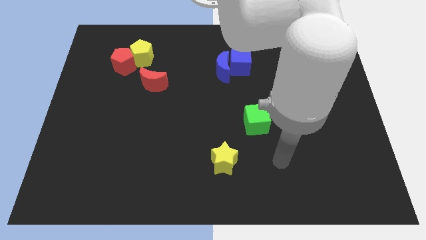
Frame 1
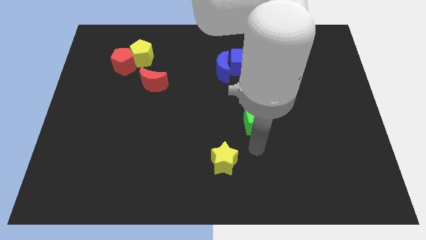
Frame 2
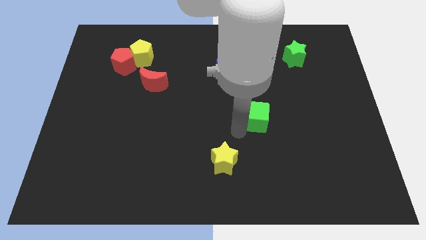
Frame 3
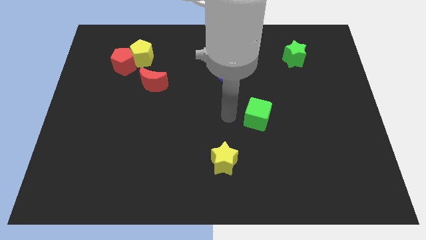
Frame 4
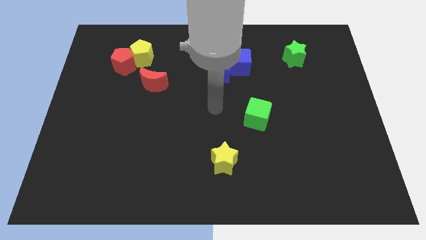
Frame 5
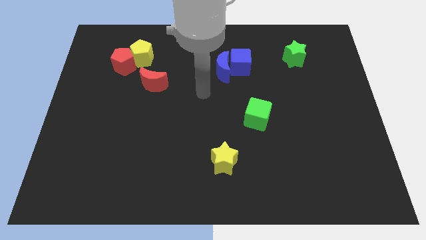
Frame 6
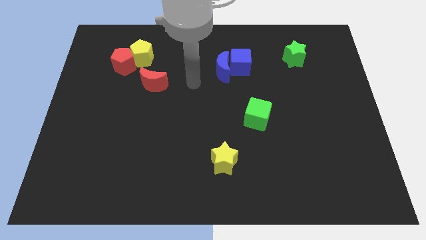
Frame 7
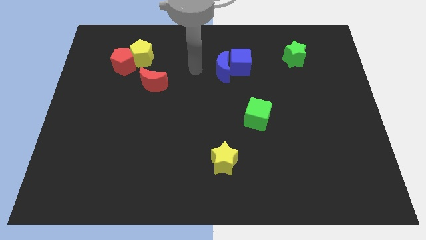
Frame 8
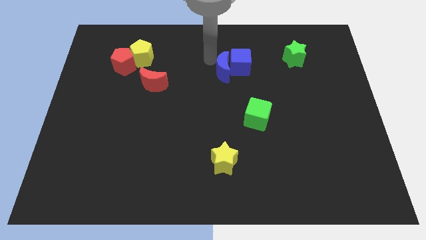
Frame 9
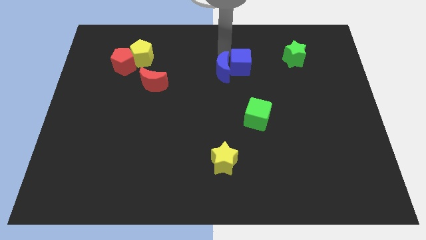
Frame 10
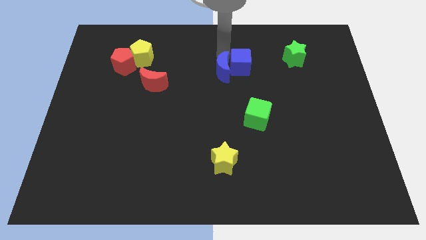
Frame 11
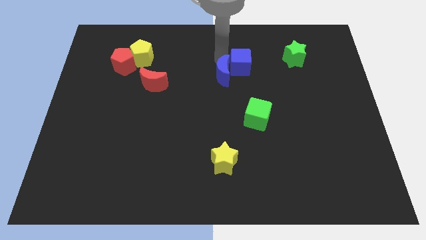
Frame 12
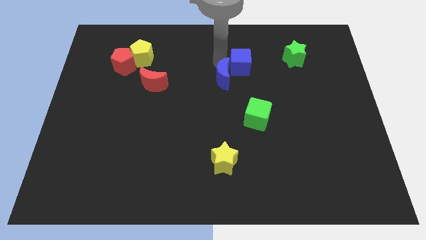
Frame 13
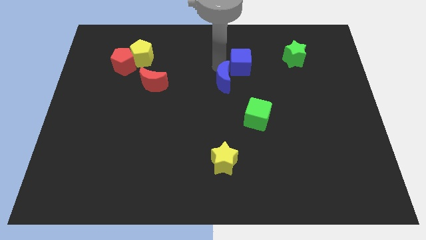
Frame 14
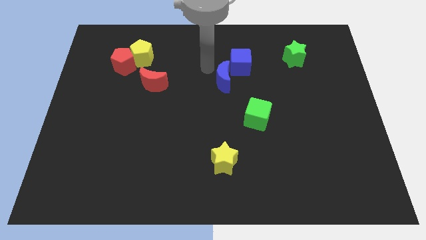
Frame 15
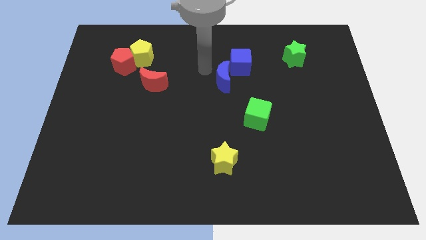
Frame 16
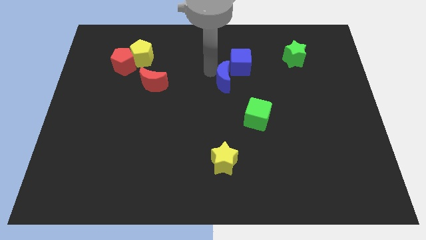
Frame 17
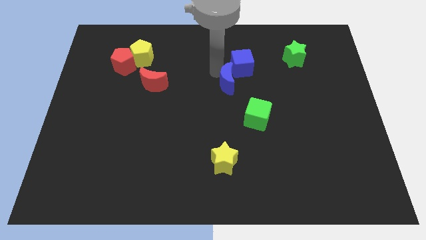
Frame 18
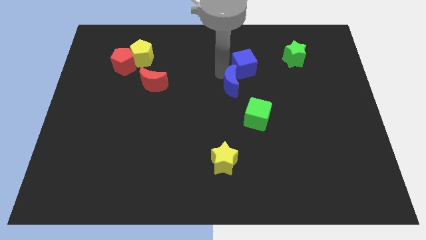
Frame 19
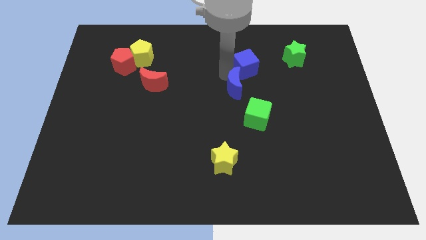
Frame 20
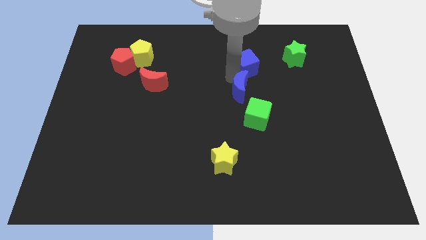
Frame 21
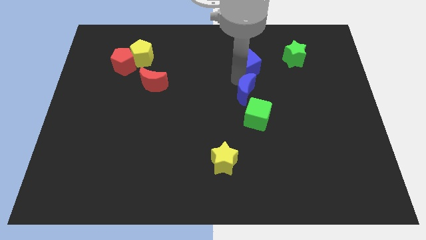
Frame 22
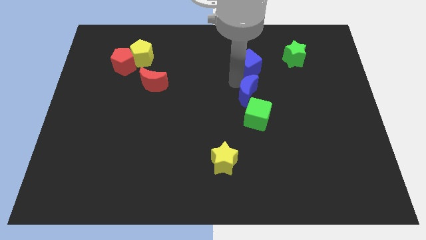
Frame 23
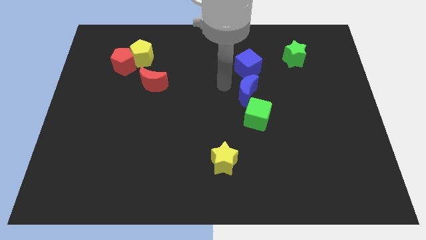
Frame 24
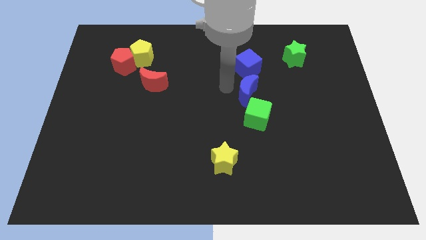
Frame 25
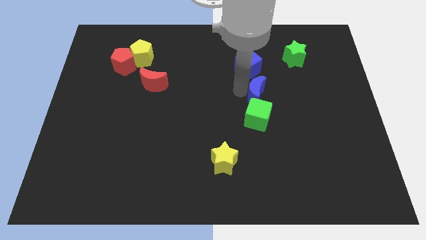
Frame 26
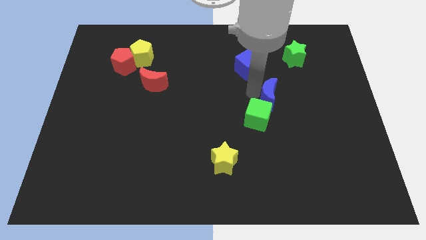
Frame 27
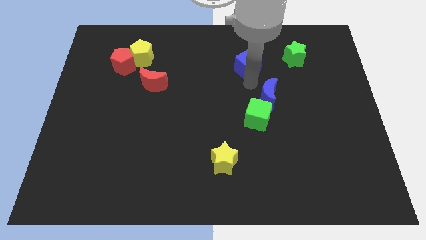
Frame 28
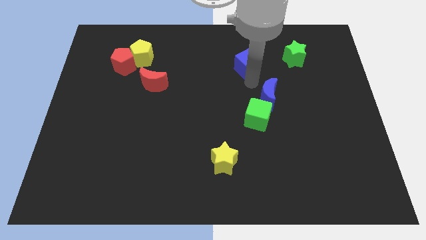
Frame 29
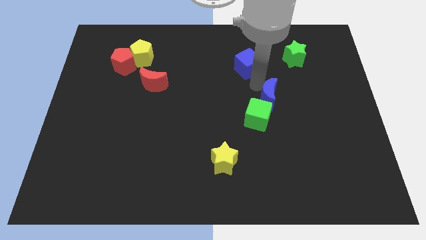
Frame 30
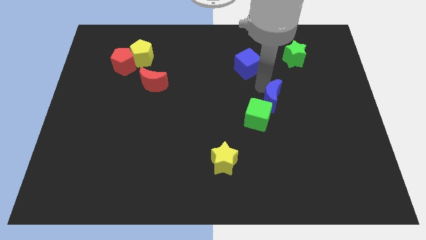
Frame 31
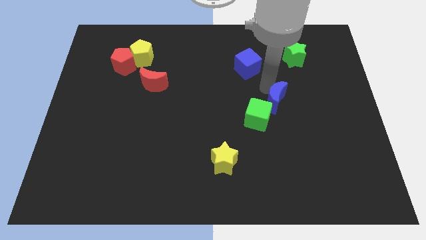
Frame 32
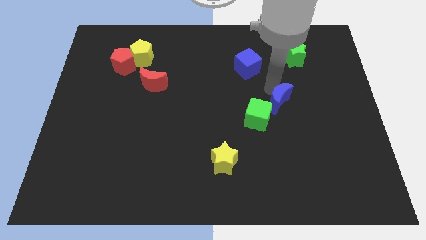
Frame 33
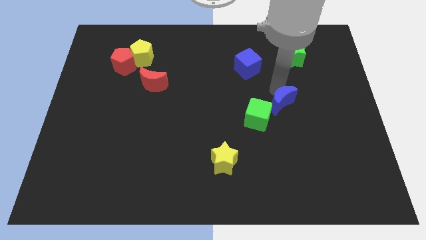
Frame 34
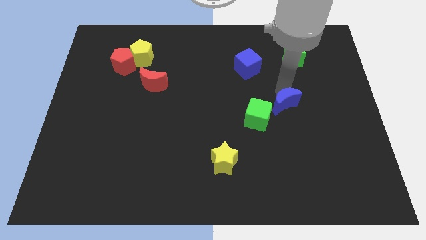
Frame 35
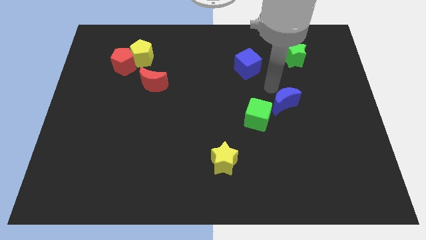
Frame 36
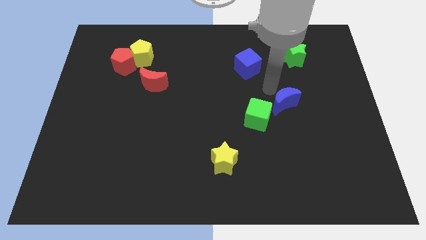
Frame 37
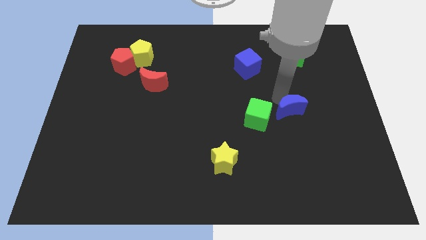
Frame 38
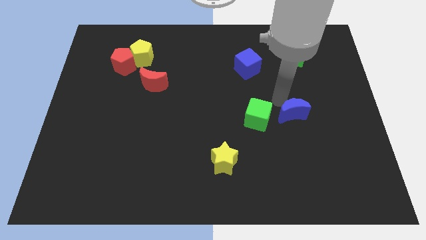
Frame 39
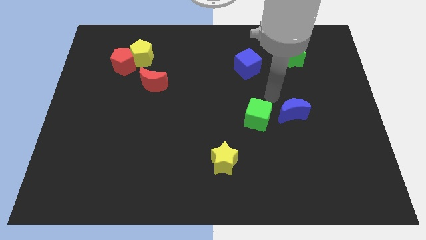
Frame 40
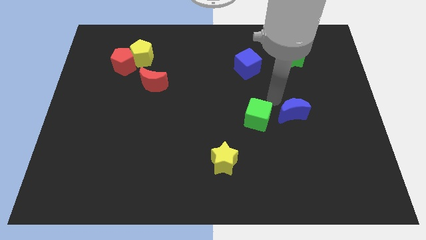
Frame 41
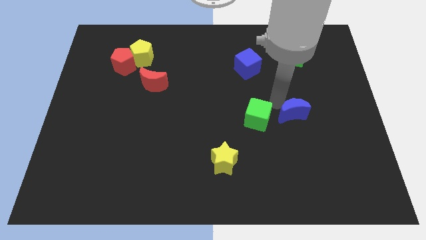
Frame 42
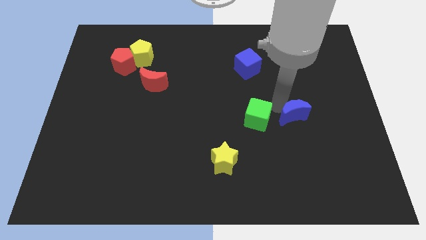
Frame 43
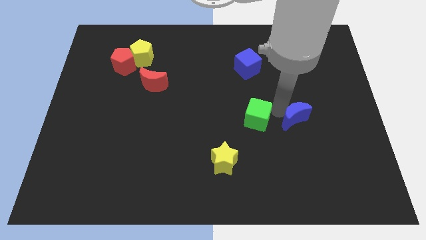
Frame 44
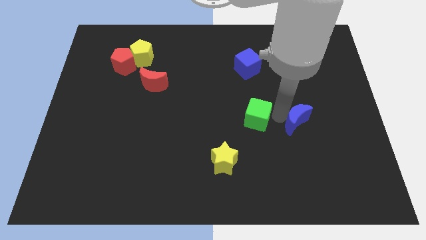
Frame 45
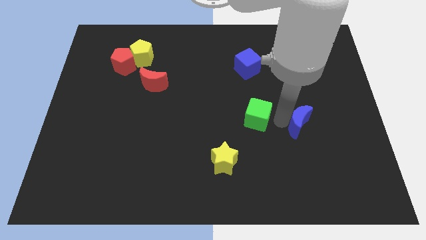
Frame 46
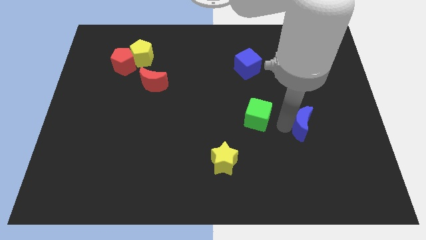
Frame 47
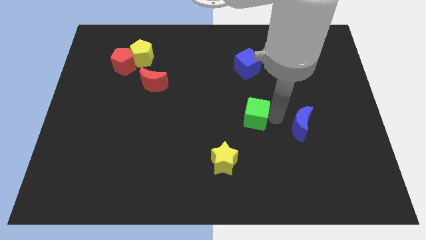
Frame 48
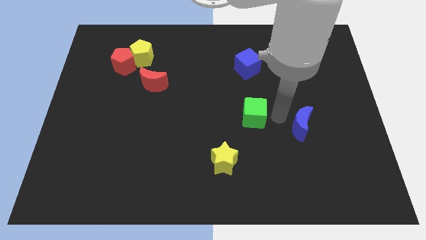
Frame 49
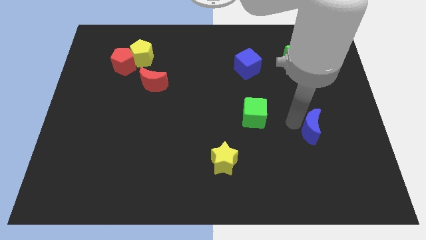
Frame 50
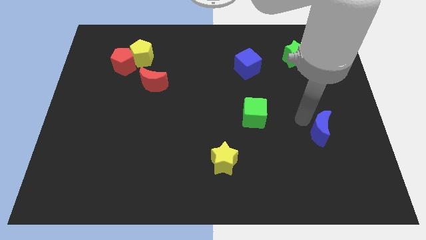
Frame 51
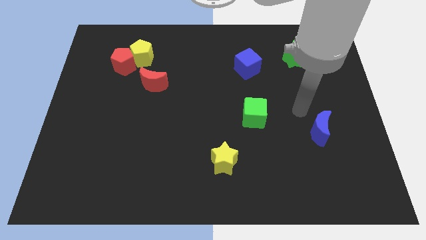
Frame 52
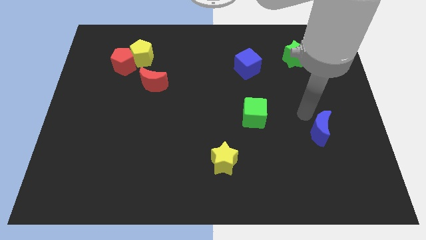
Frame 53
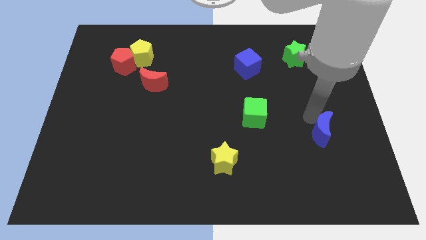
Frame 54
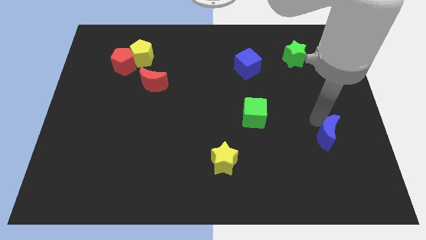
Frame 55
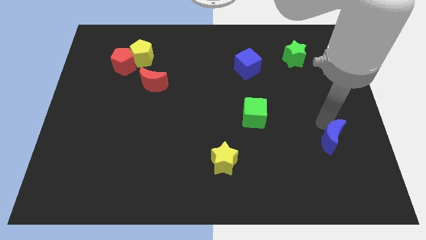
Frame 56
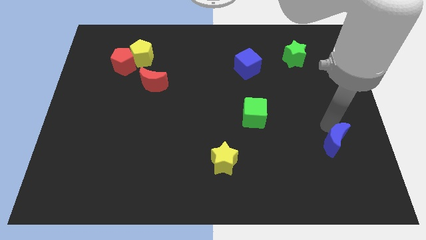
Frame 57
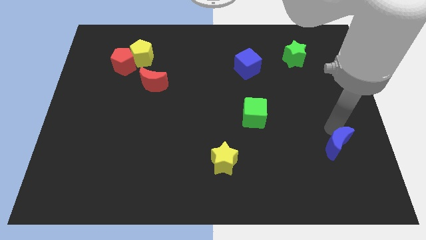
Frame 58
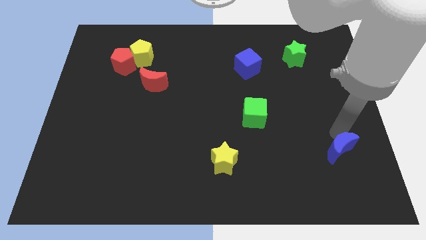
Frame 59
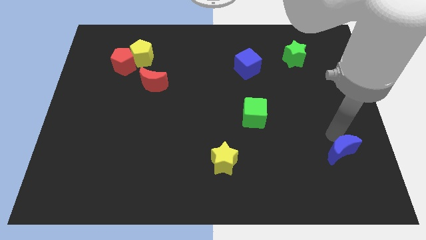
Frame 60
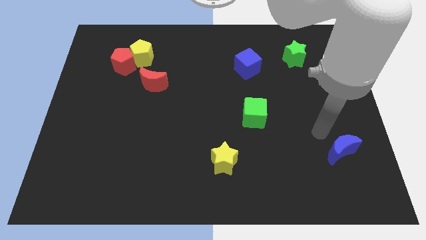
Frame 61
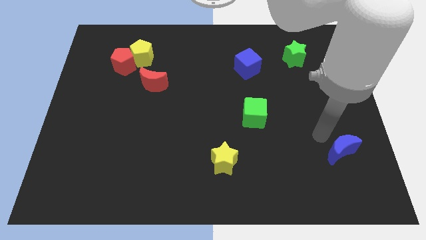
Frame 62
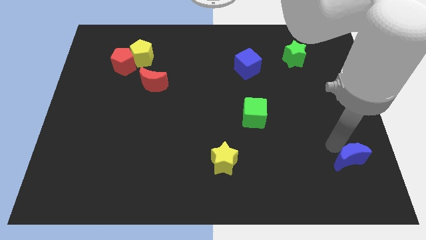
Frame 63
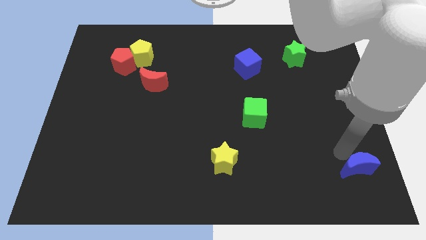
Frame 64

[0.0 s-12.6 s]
slide the blue moon to the lower right corner

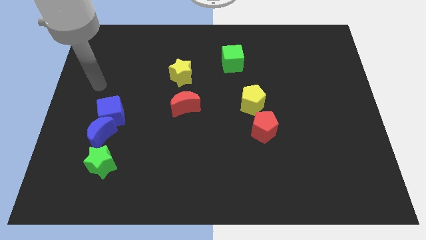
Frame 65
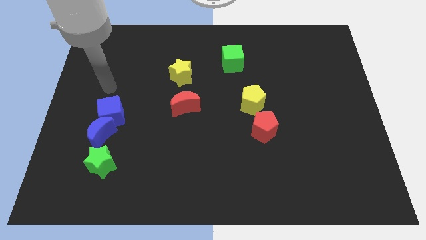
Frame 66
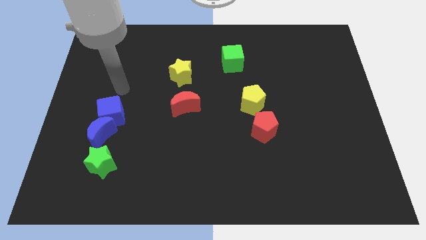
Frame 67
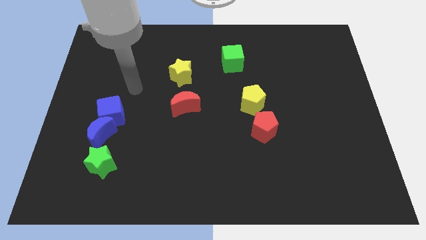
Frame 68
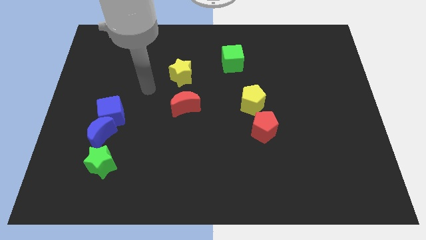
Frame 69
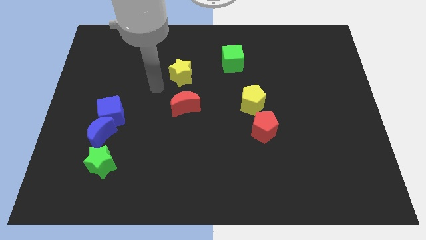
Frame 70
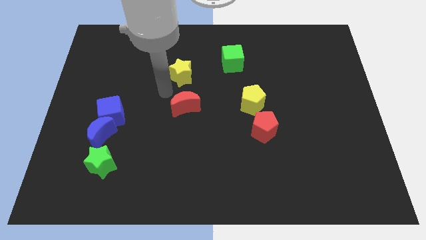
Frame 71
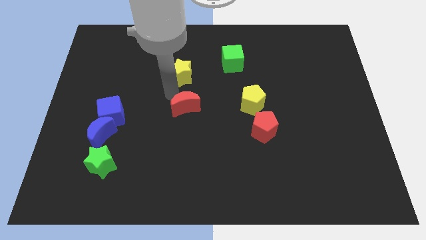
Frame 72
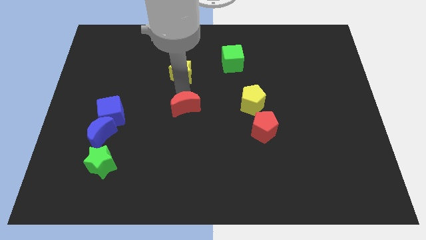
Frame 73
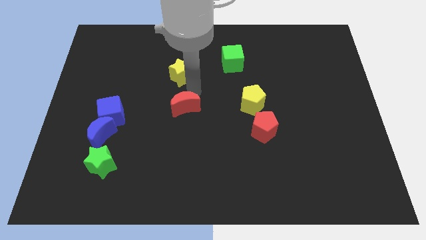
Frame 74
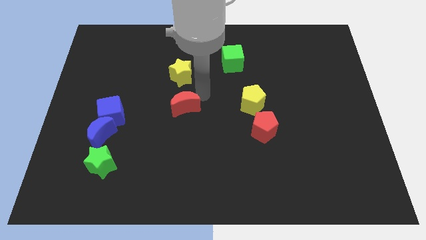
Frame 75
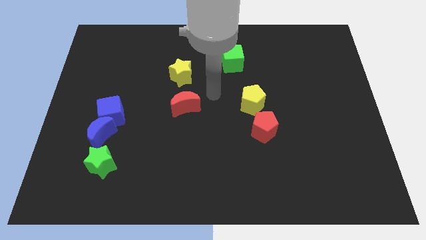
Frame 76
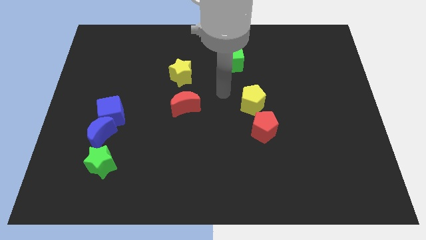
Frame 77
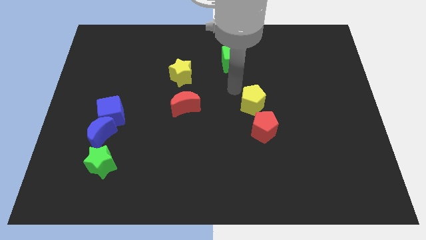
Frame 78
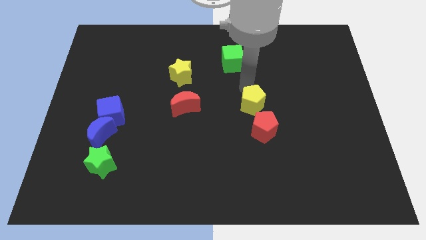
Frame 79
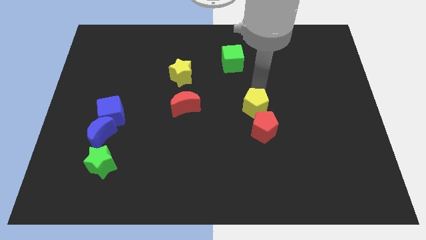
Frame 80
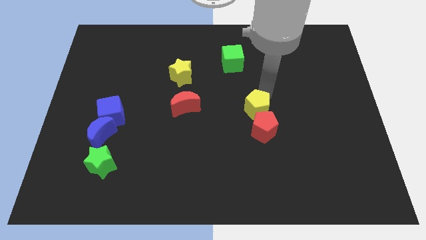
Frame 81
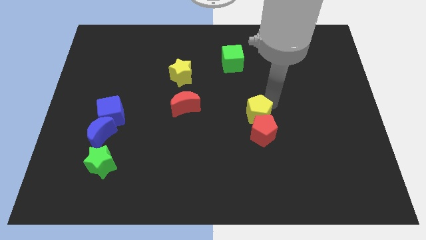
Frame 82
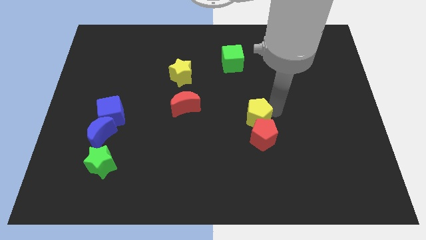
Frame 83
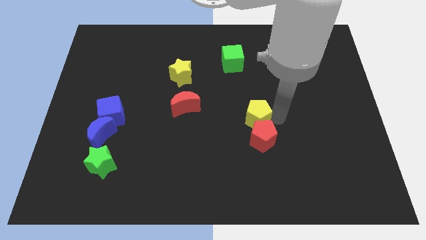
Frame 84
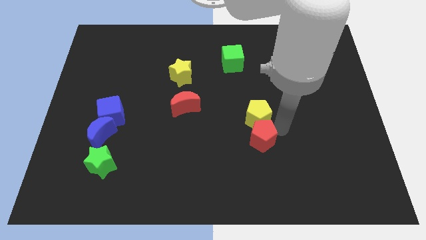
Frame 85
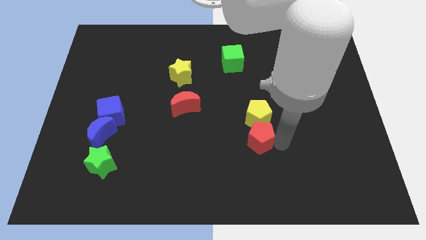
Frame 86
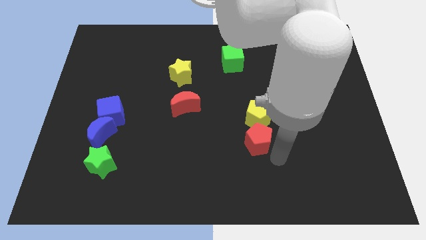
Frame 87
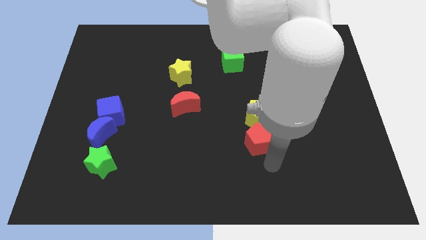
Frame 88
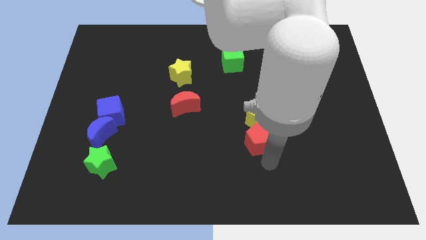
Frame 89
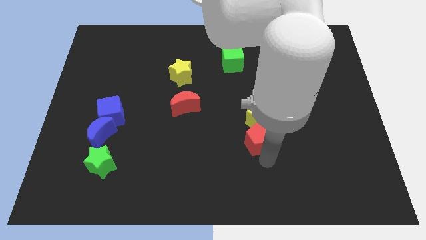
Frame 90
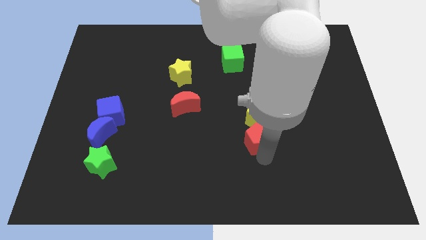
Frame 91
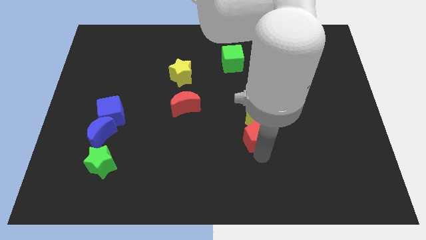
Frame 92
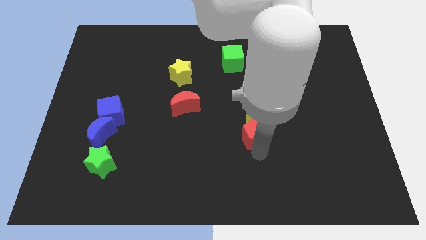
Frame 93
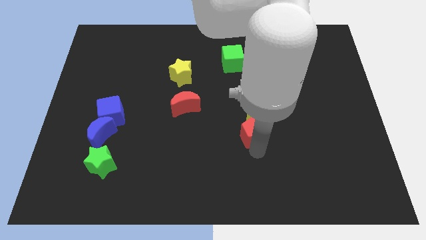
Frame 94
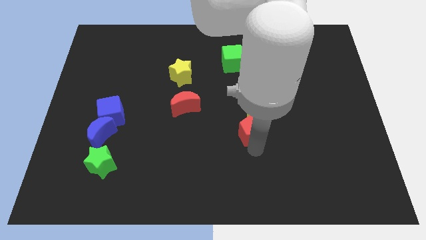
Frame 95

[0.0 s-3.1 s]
move the red pentagon to the center
